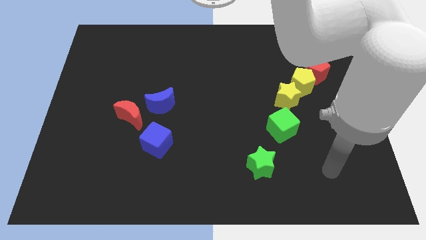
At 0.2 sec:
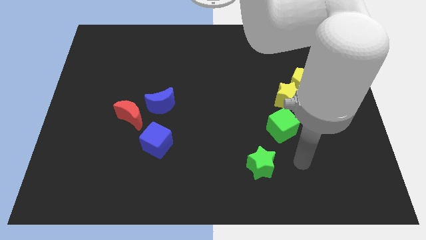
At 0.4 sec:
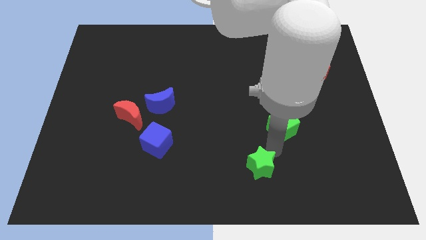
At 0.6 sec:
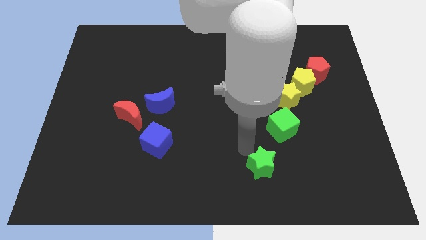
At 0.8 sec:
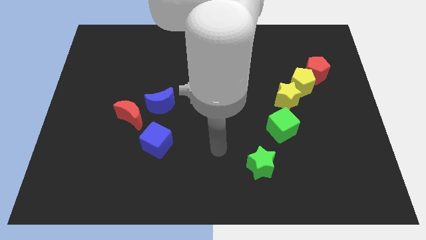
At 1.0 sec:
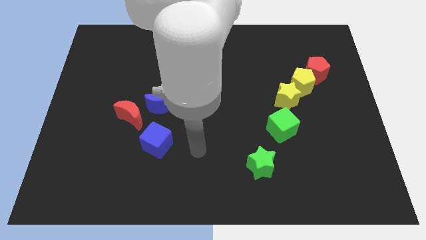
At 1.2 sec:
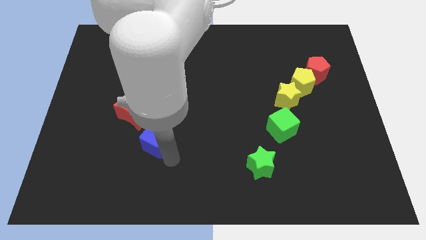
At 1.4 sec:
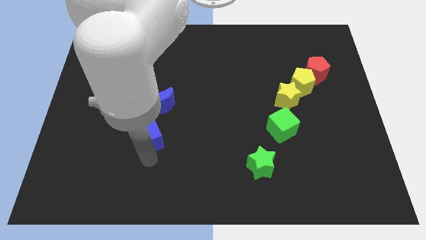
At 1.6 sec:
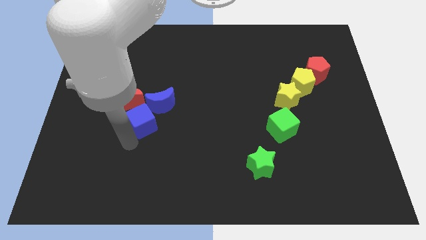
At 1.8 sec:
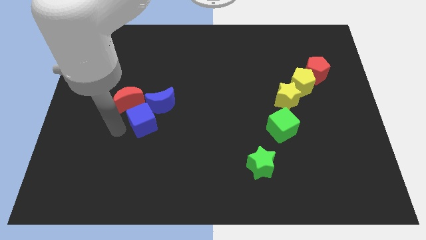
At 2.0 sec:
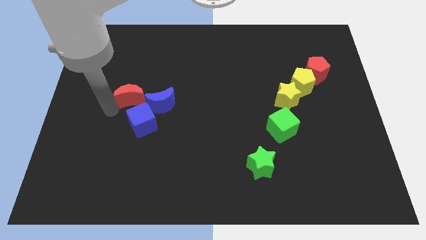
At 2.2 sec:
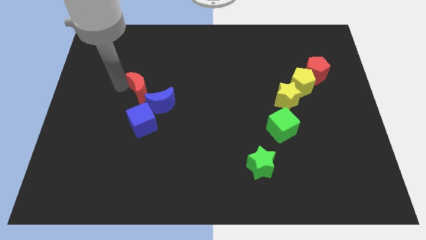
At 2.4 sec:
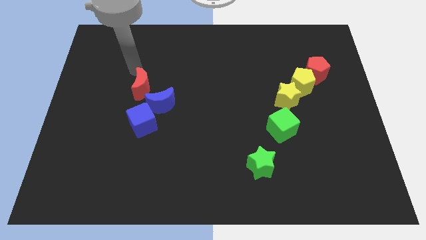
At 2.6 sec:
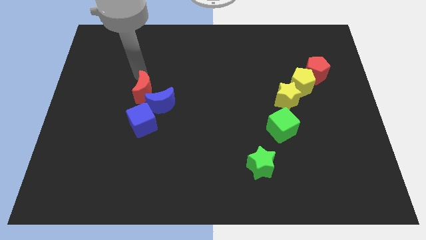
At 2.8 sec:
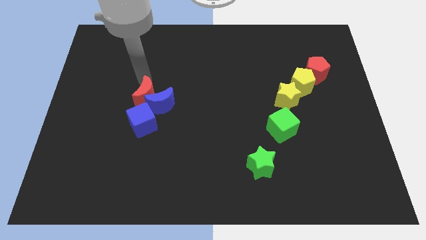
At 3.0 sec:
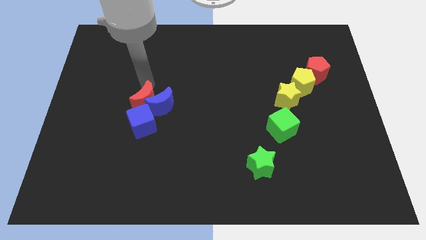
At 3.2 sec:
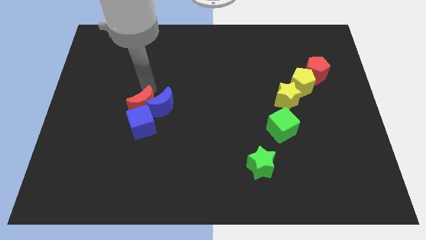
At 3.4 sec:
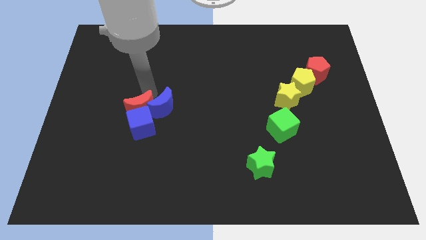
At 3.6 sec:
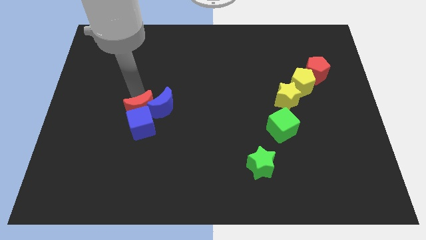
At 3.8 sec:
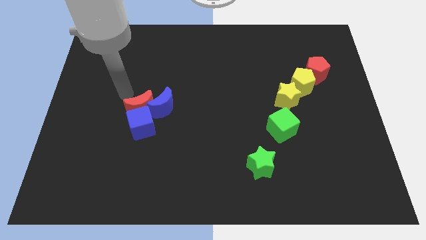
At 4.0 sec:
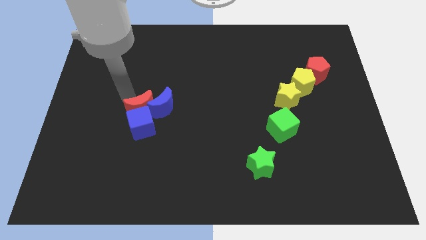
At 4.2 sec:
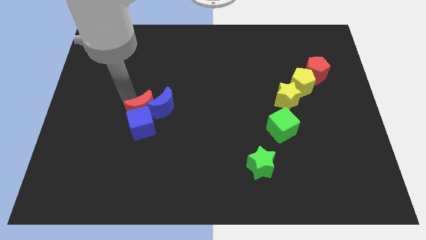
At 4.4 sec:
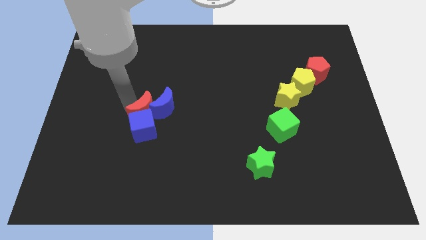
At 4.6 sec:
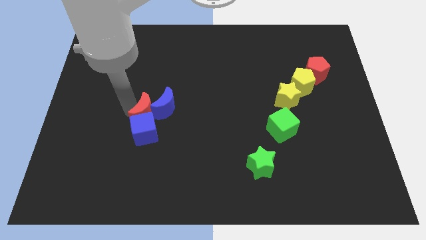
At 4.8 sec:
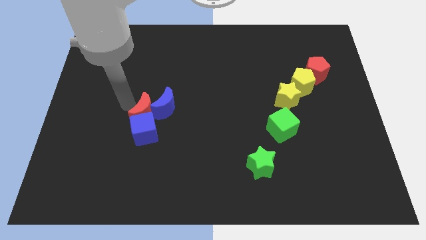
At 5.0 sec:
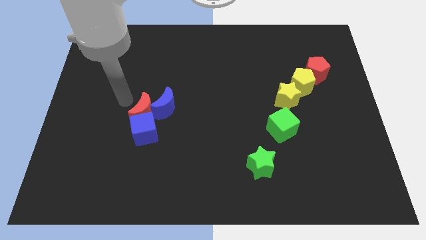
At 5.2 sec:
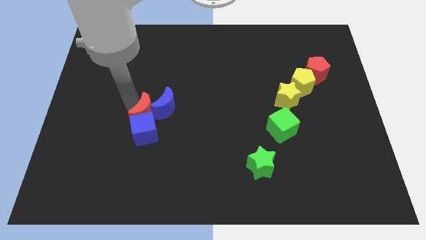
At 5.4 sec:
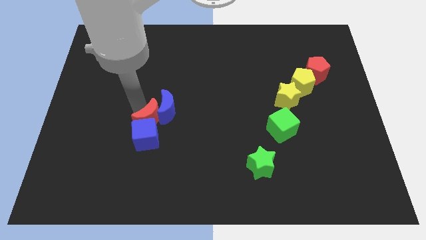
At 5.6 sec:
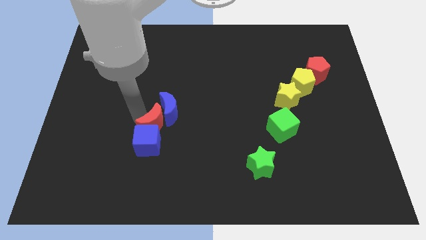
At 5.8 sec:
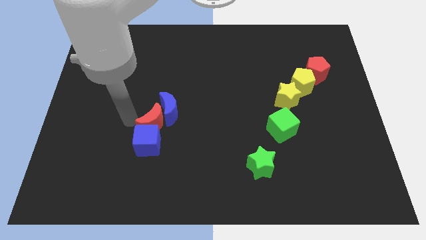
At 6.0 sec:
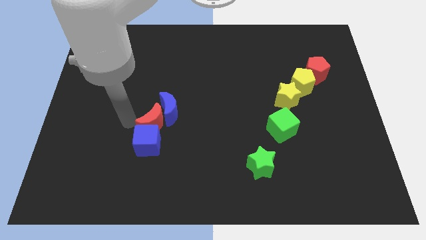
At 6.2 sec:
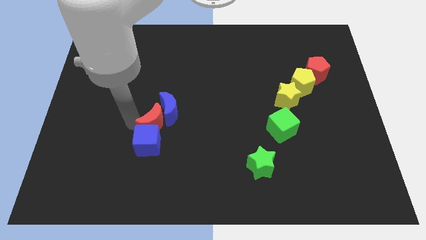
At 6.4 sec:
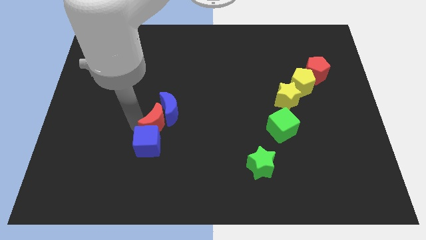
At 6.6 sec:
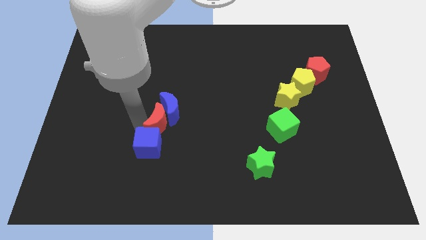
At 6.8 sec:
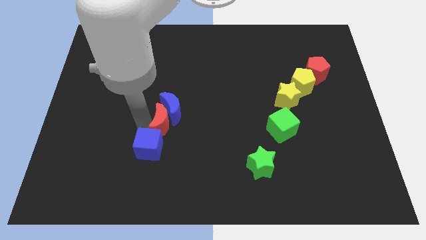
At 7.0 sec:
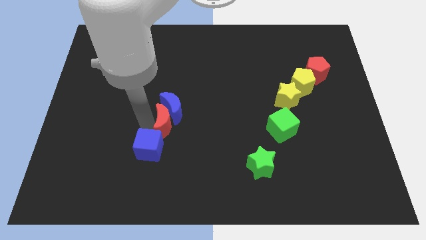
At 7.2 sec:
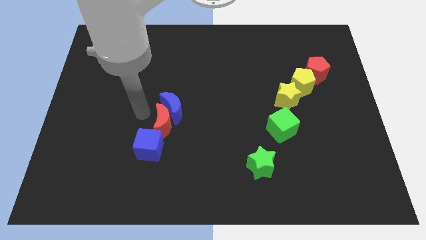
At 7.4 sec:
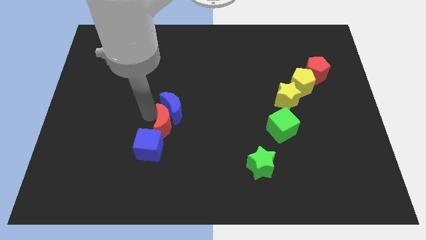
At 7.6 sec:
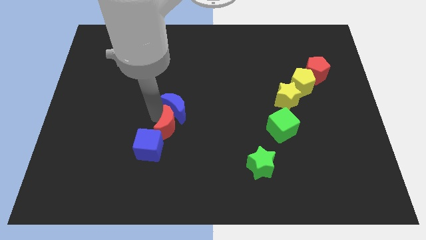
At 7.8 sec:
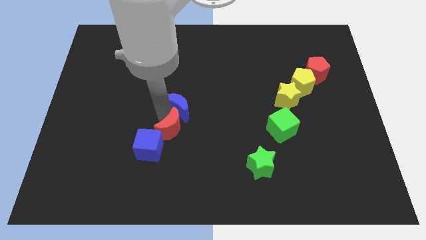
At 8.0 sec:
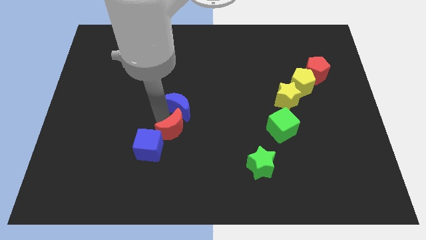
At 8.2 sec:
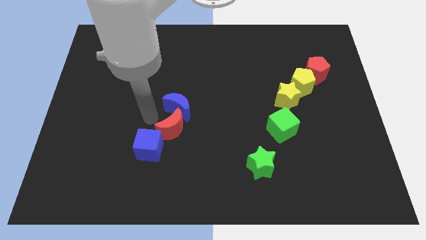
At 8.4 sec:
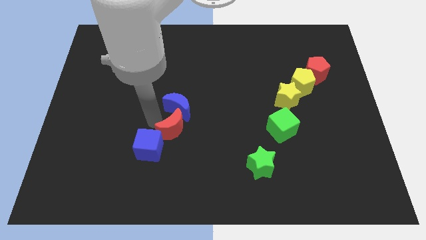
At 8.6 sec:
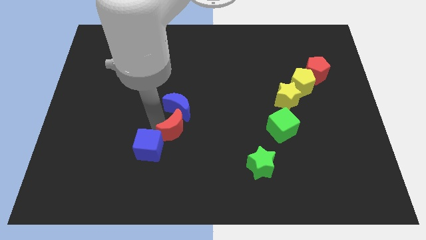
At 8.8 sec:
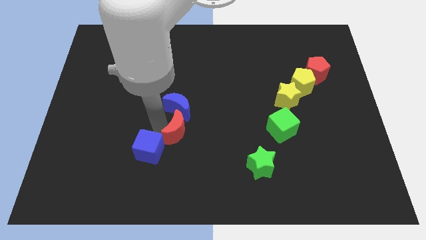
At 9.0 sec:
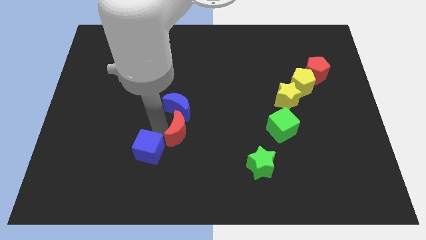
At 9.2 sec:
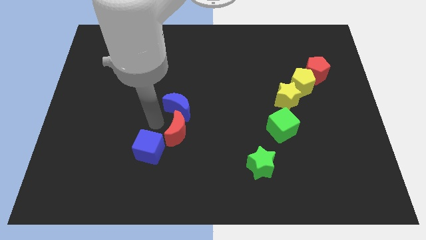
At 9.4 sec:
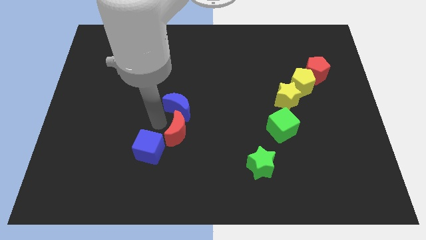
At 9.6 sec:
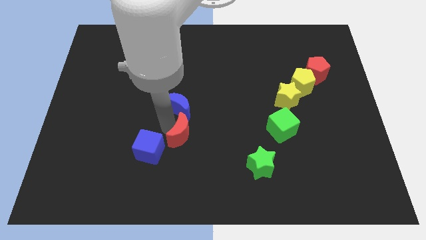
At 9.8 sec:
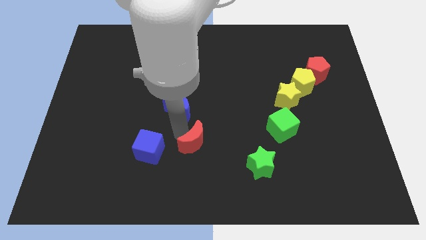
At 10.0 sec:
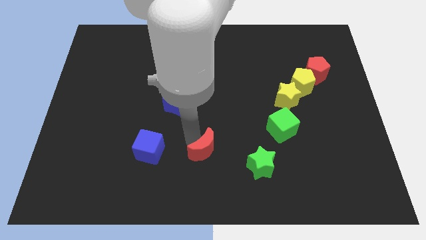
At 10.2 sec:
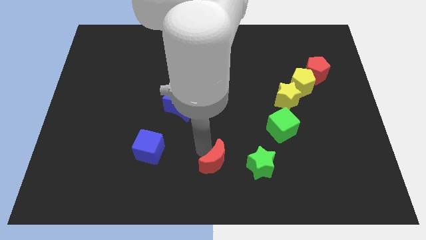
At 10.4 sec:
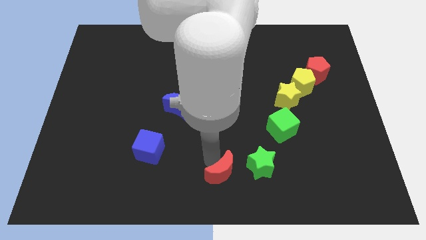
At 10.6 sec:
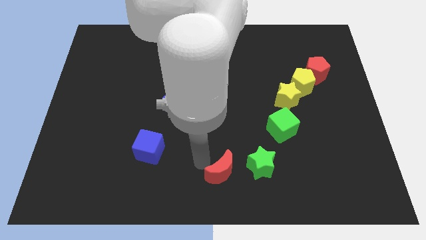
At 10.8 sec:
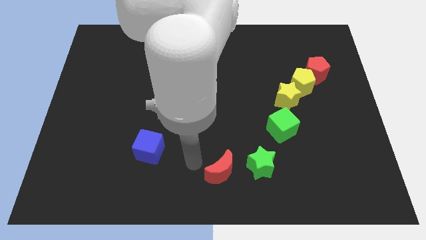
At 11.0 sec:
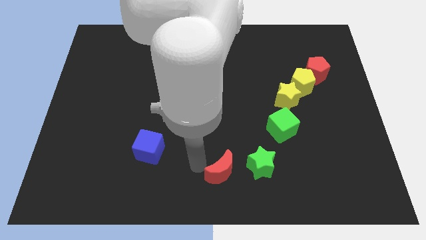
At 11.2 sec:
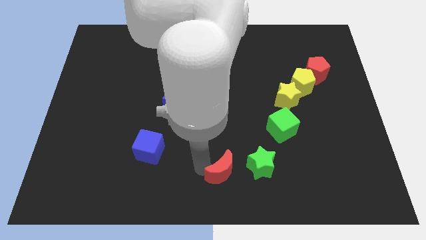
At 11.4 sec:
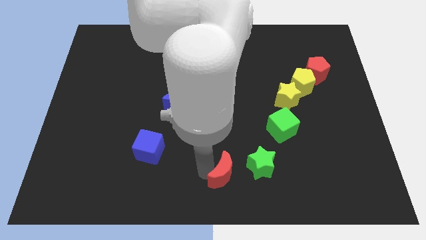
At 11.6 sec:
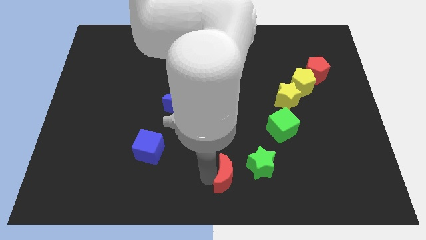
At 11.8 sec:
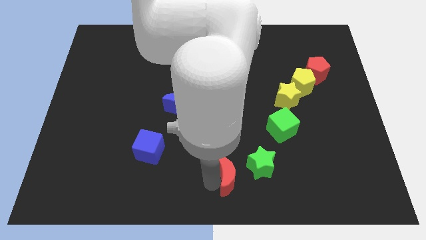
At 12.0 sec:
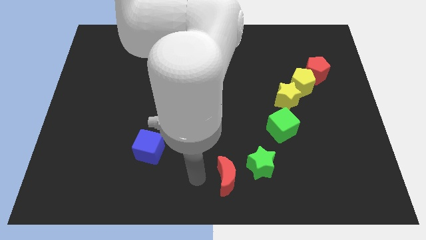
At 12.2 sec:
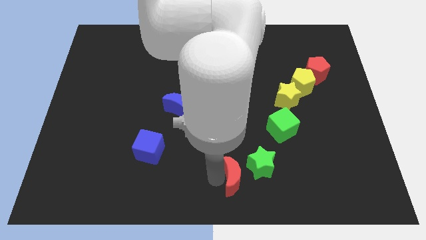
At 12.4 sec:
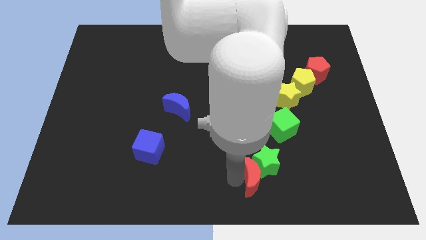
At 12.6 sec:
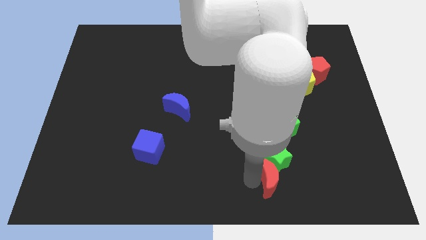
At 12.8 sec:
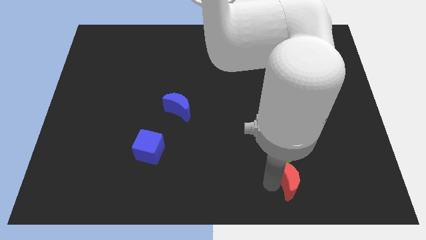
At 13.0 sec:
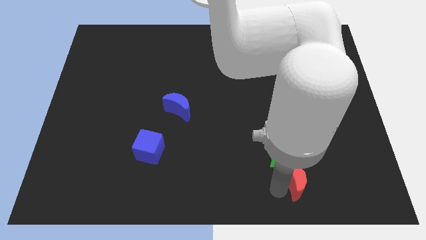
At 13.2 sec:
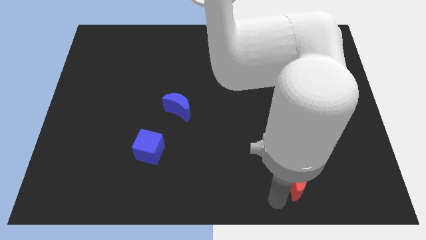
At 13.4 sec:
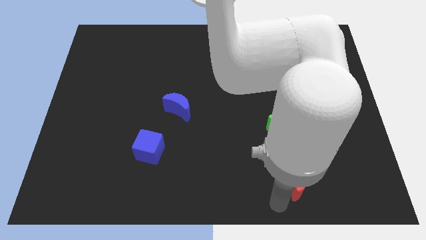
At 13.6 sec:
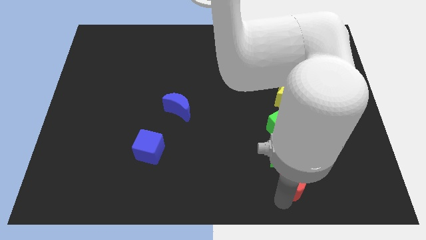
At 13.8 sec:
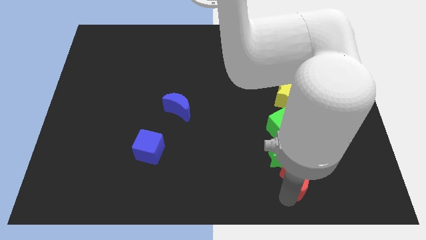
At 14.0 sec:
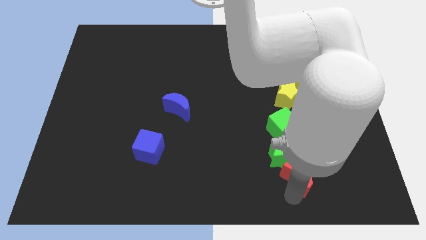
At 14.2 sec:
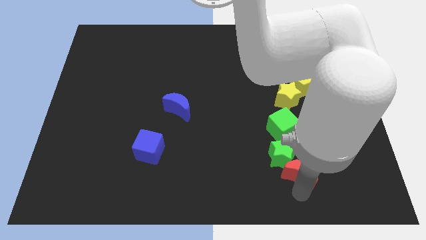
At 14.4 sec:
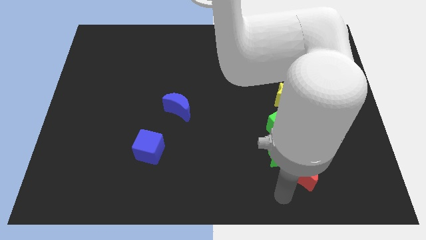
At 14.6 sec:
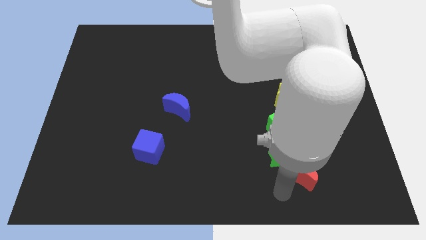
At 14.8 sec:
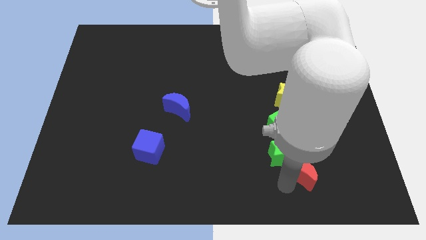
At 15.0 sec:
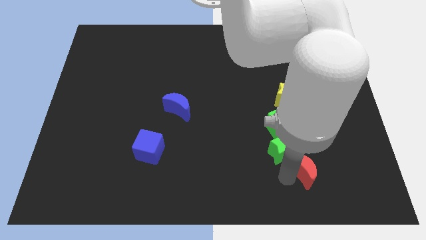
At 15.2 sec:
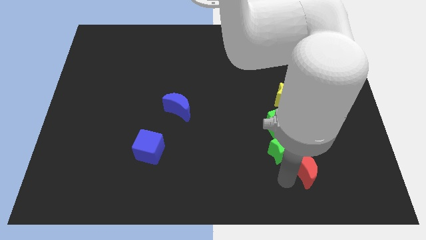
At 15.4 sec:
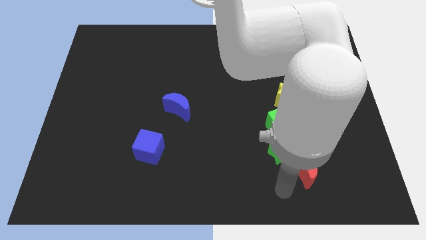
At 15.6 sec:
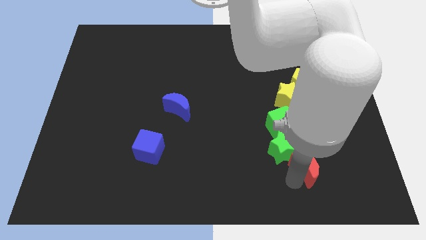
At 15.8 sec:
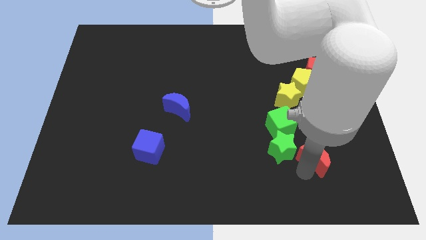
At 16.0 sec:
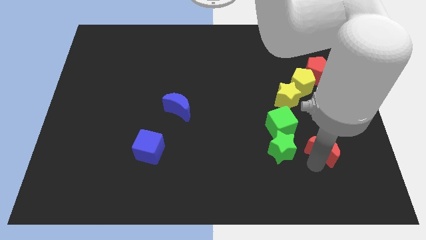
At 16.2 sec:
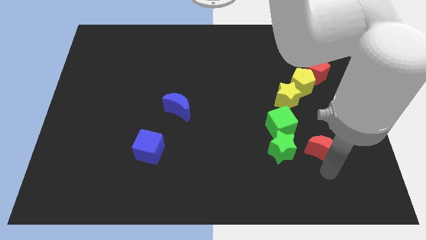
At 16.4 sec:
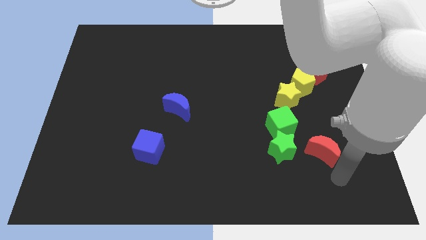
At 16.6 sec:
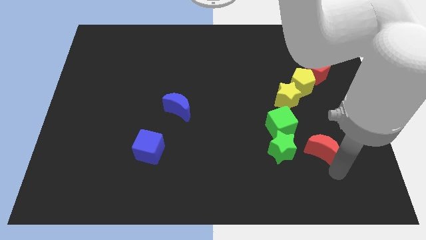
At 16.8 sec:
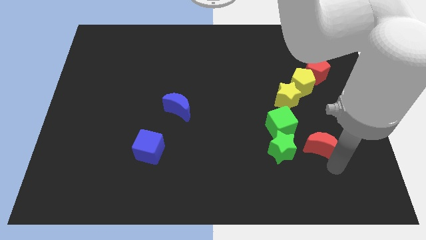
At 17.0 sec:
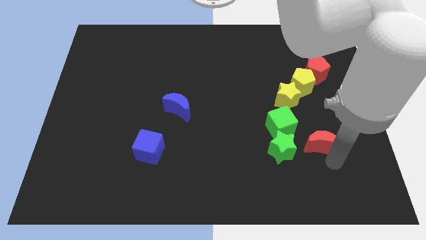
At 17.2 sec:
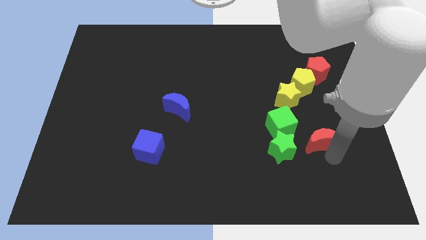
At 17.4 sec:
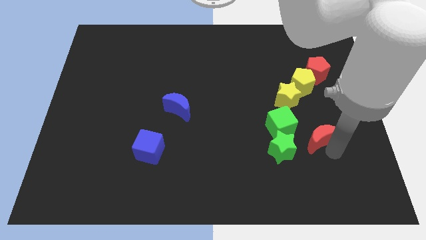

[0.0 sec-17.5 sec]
put the red moon to the bottom side of the yellow pentagon
